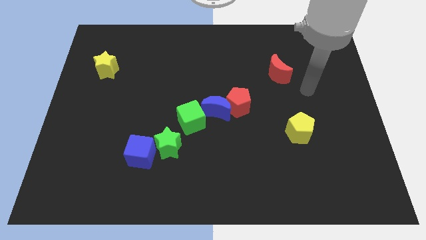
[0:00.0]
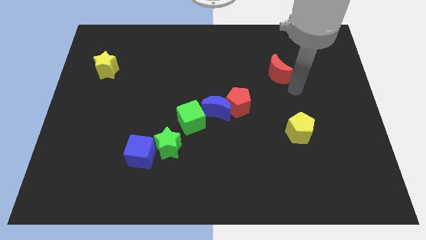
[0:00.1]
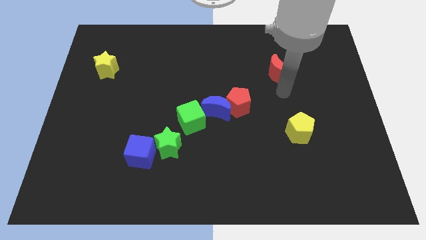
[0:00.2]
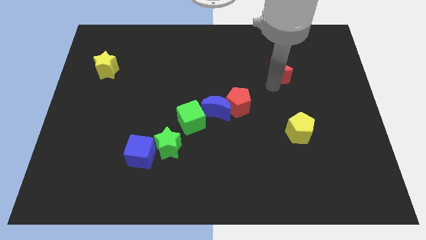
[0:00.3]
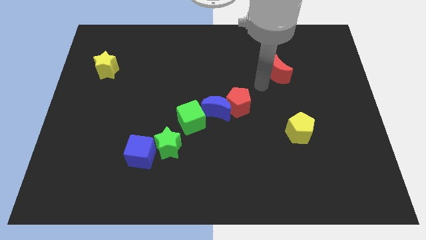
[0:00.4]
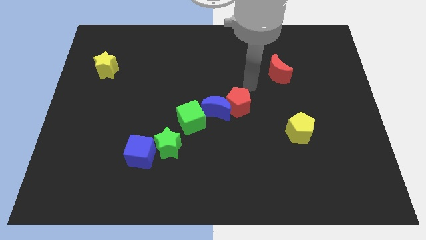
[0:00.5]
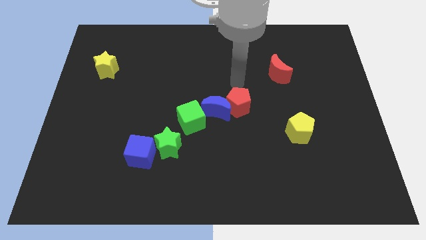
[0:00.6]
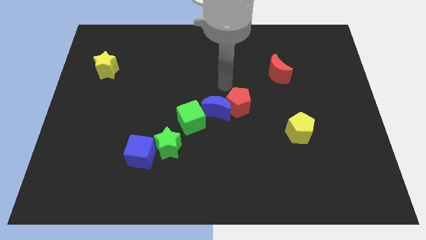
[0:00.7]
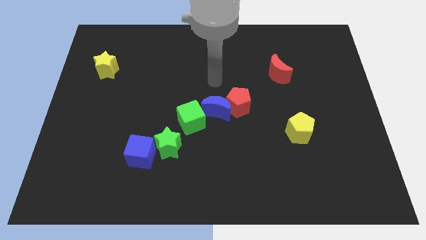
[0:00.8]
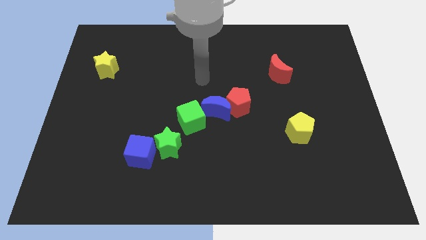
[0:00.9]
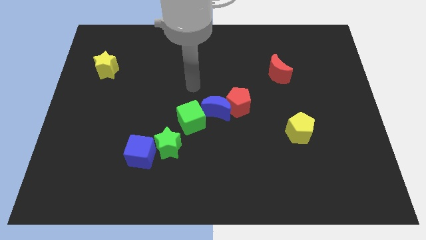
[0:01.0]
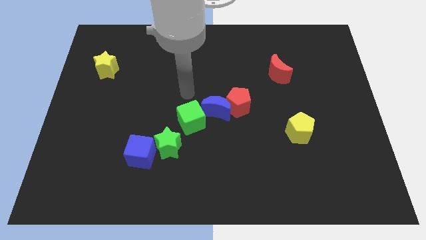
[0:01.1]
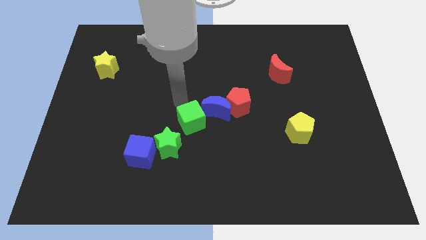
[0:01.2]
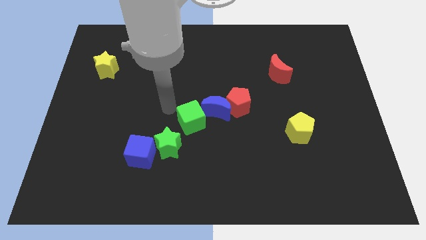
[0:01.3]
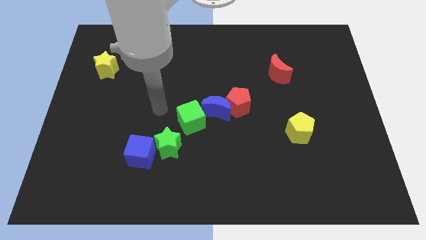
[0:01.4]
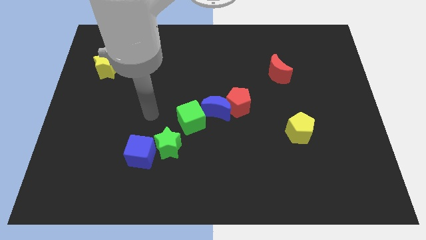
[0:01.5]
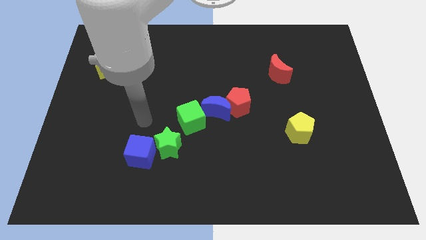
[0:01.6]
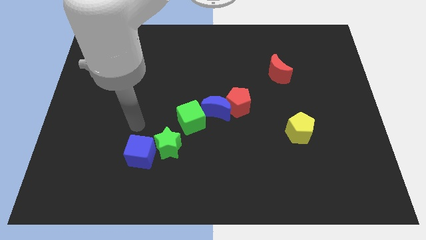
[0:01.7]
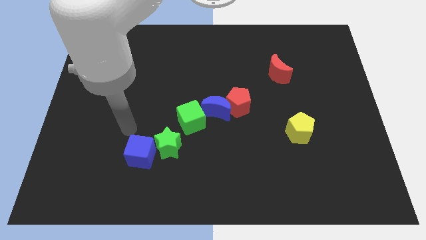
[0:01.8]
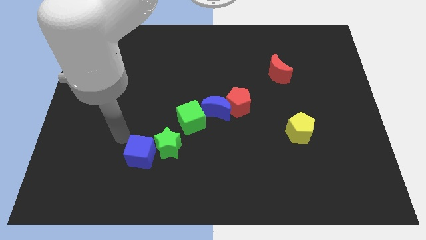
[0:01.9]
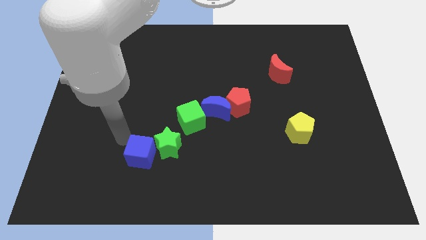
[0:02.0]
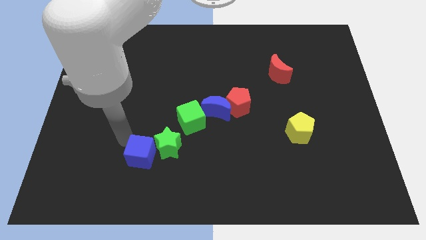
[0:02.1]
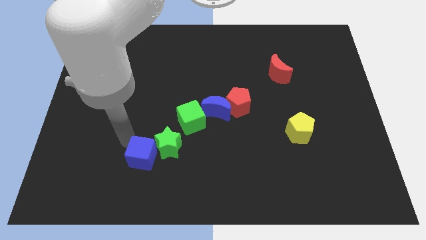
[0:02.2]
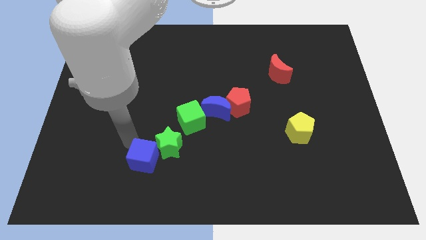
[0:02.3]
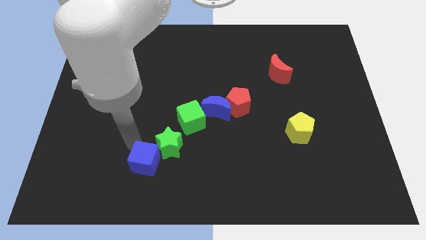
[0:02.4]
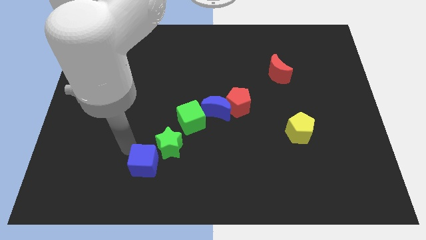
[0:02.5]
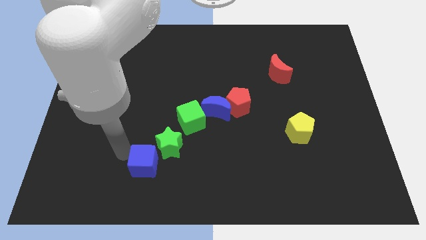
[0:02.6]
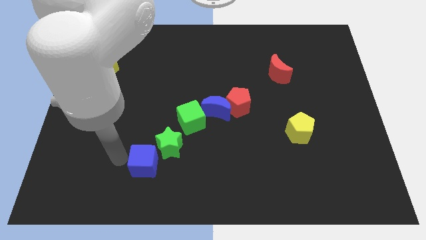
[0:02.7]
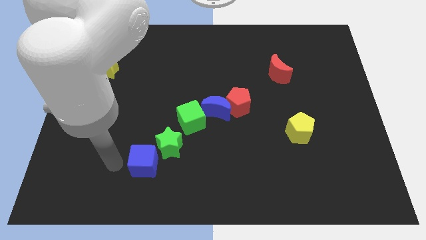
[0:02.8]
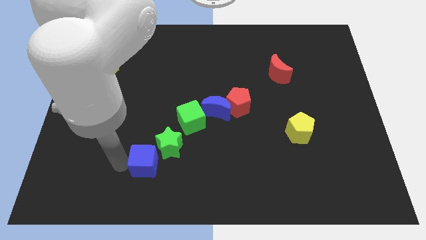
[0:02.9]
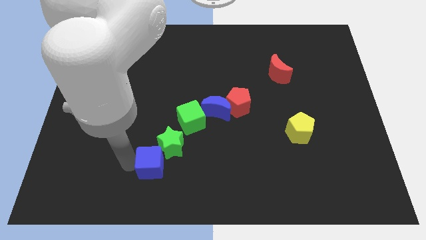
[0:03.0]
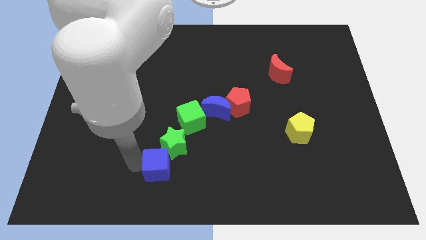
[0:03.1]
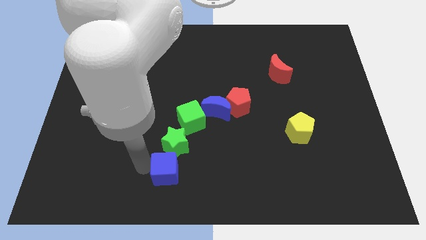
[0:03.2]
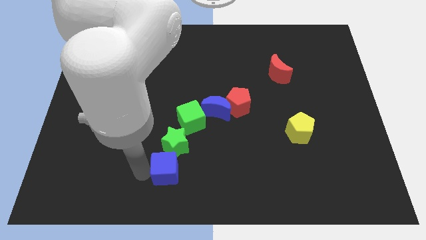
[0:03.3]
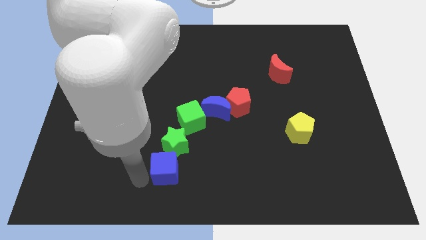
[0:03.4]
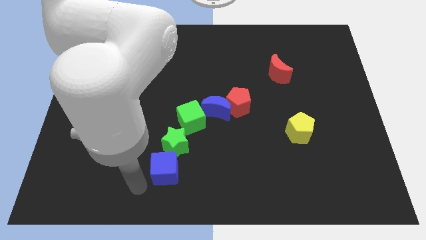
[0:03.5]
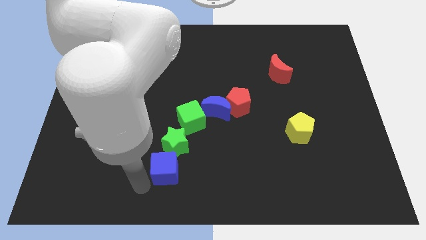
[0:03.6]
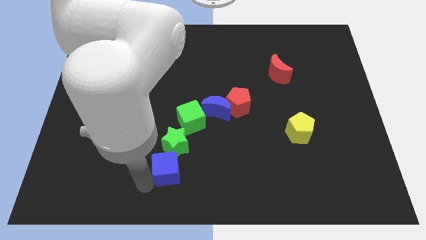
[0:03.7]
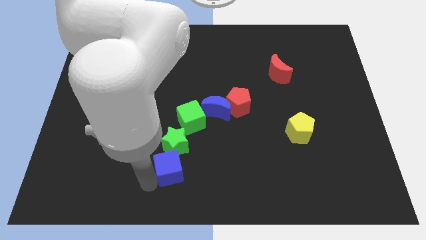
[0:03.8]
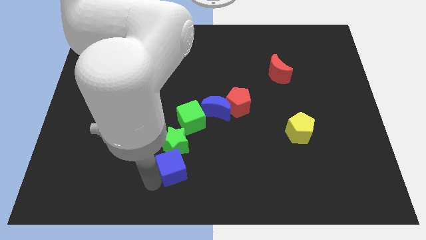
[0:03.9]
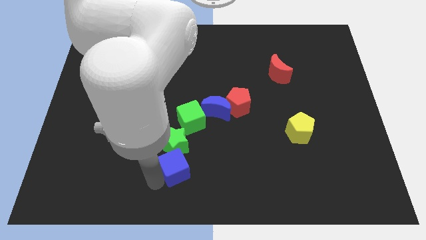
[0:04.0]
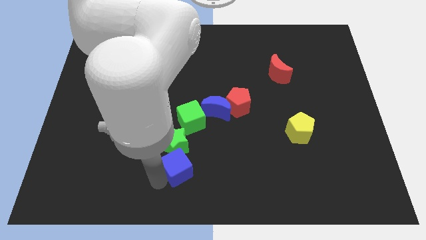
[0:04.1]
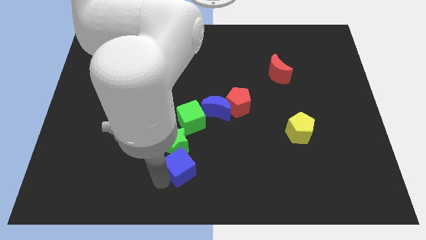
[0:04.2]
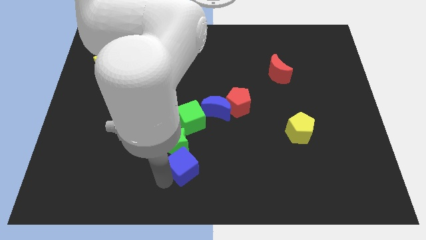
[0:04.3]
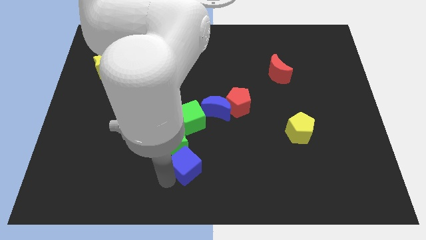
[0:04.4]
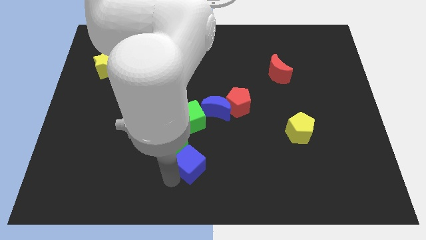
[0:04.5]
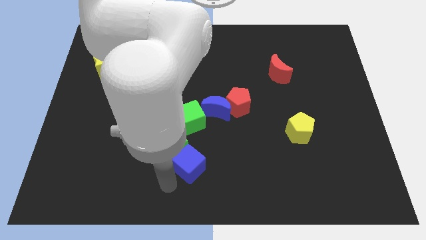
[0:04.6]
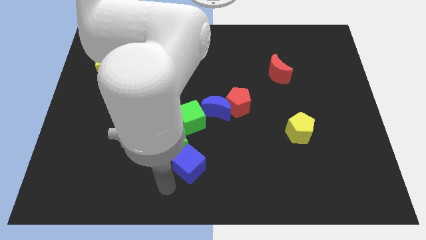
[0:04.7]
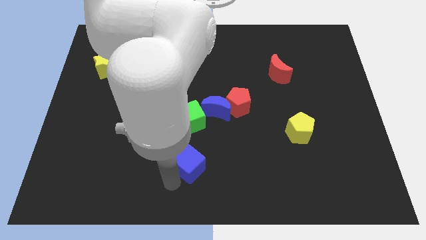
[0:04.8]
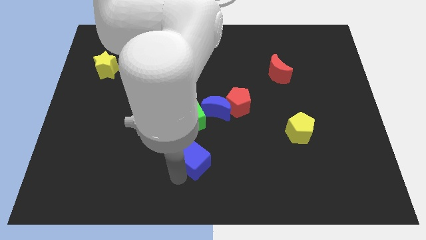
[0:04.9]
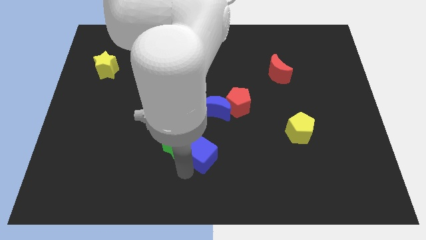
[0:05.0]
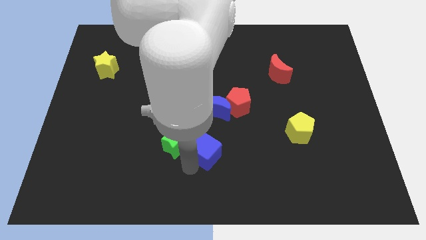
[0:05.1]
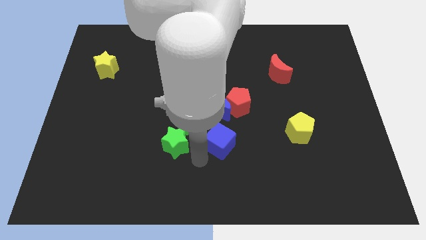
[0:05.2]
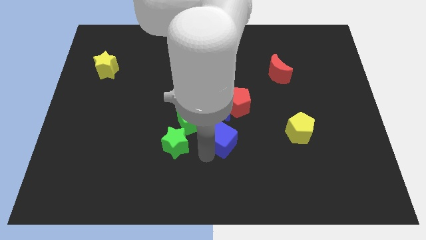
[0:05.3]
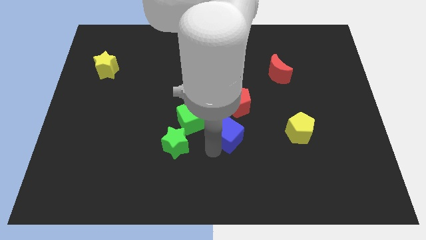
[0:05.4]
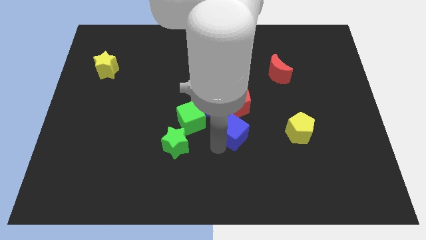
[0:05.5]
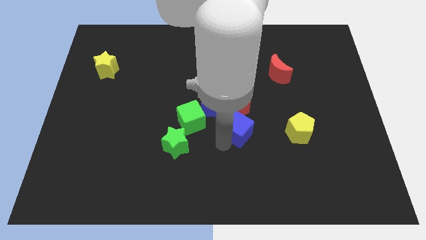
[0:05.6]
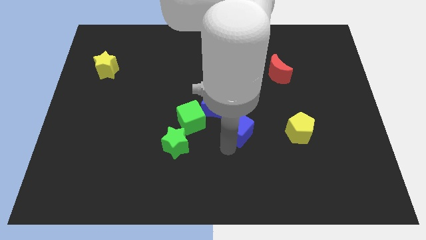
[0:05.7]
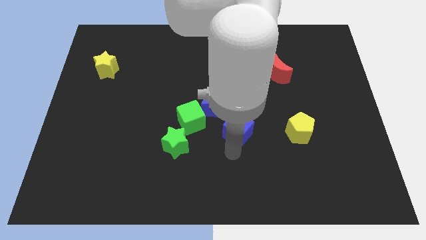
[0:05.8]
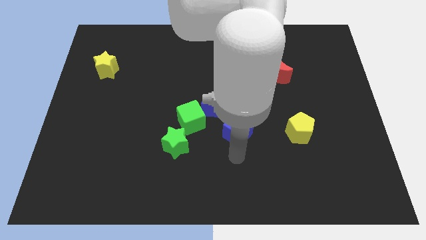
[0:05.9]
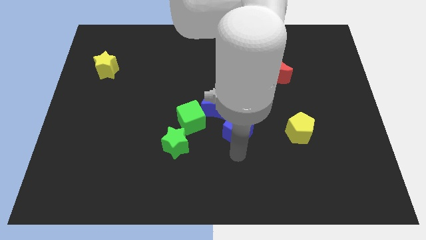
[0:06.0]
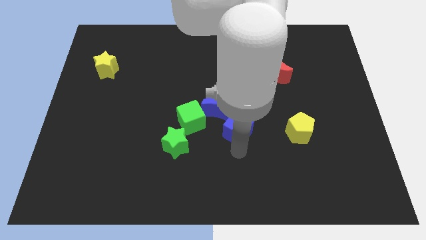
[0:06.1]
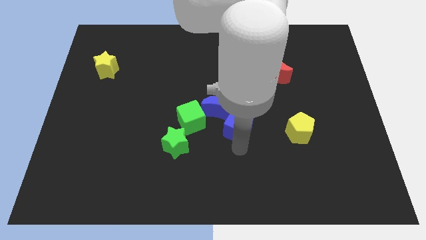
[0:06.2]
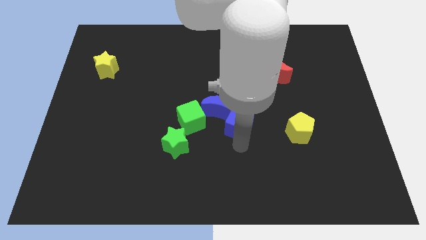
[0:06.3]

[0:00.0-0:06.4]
slide the blue cube to the red pentagon

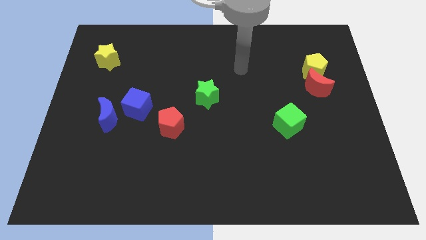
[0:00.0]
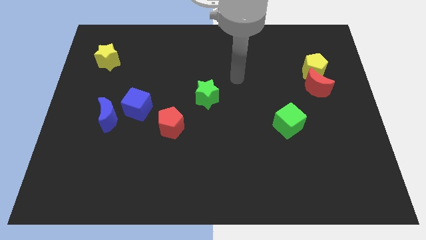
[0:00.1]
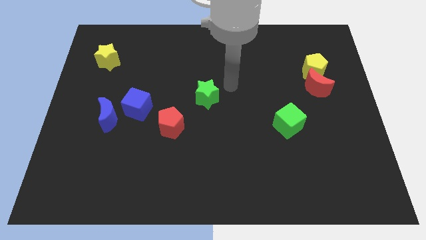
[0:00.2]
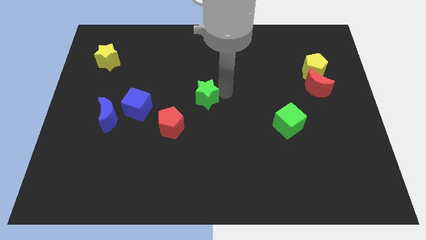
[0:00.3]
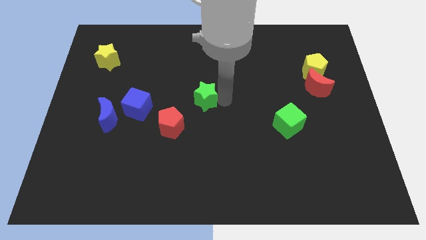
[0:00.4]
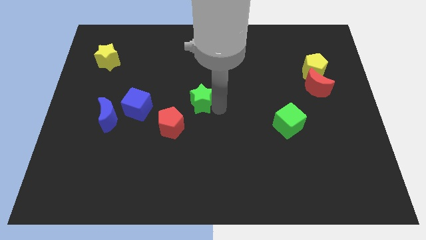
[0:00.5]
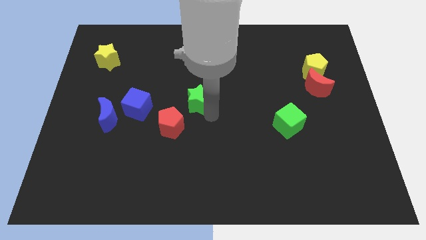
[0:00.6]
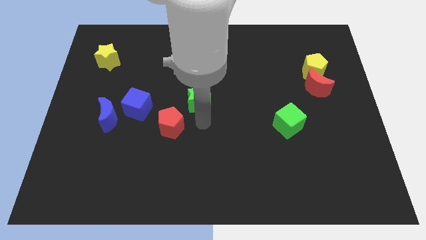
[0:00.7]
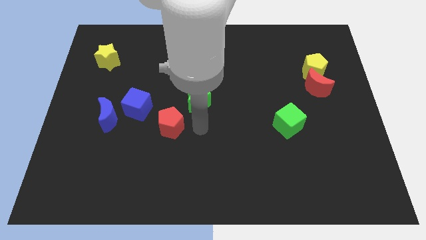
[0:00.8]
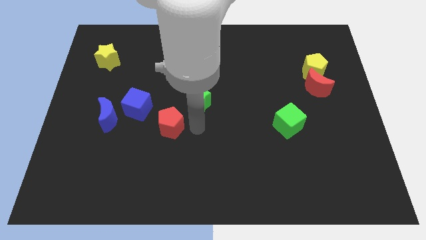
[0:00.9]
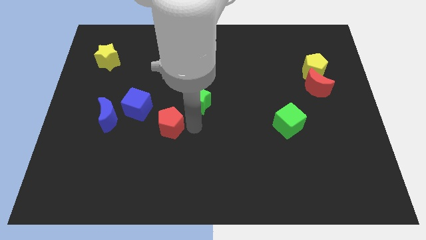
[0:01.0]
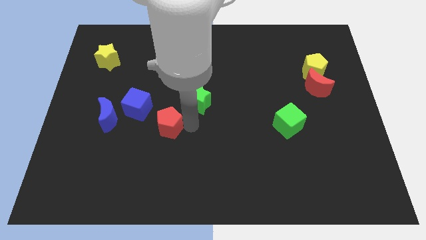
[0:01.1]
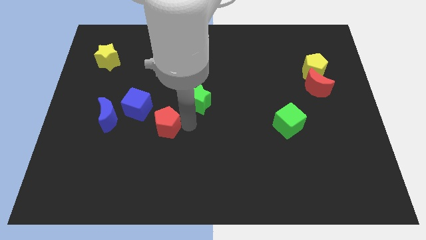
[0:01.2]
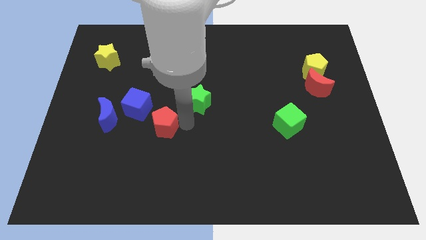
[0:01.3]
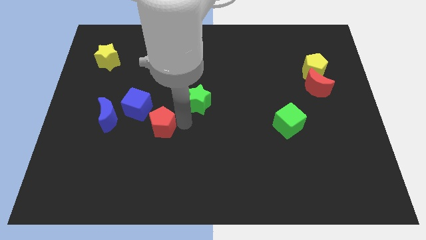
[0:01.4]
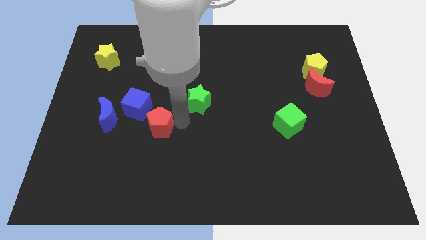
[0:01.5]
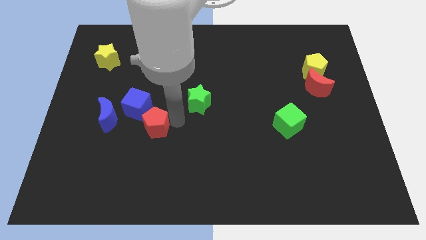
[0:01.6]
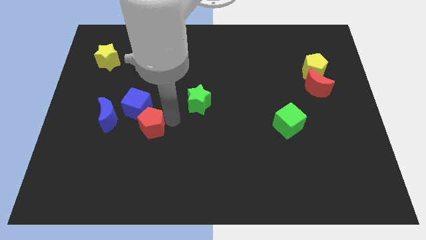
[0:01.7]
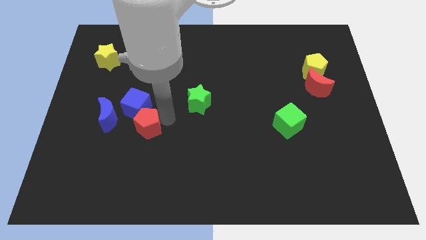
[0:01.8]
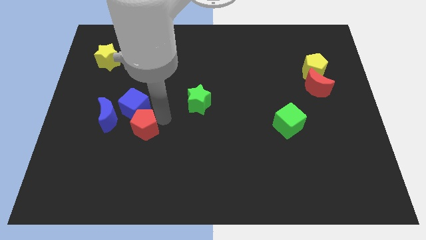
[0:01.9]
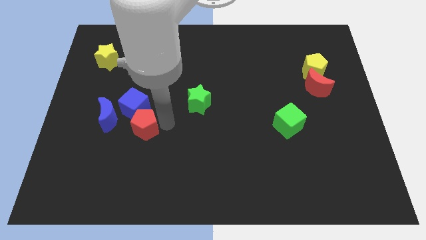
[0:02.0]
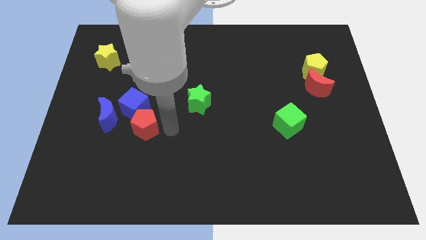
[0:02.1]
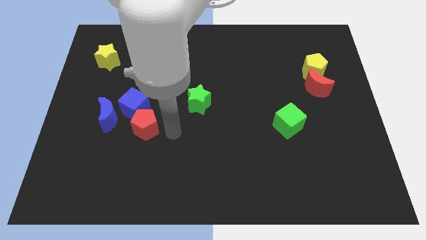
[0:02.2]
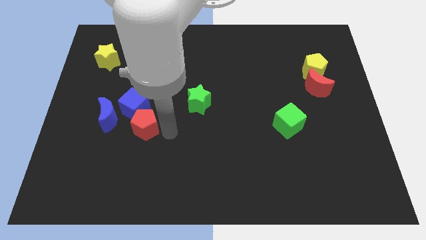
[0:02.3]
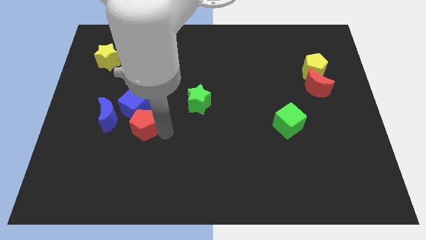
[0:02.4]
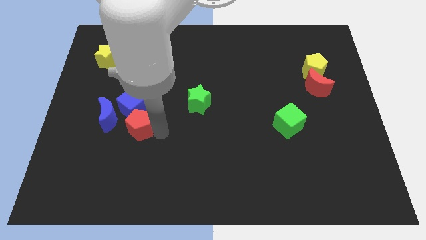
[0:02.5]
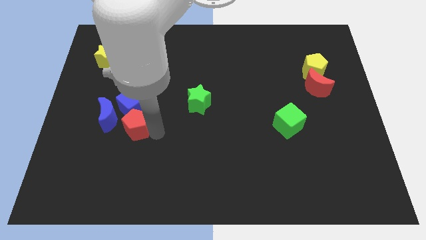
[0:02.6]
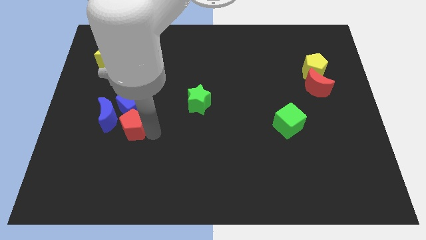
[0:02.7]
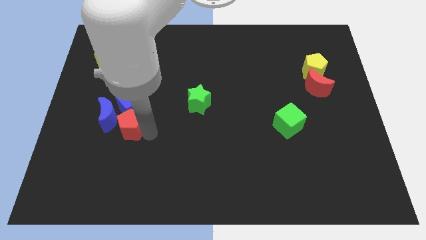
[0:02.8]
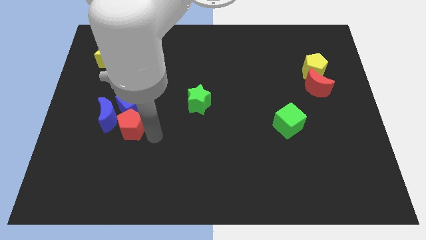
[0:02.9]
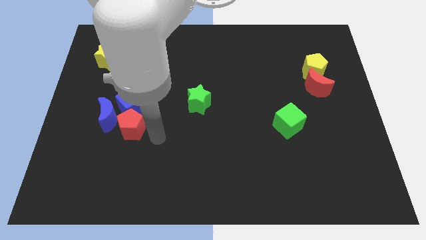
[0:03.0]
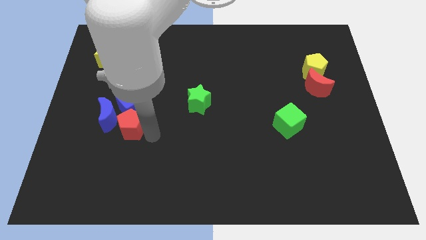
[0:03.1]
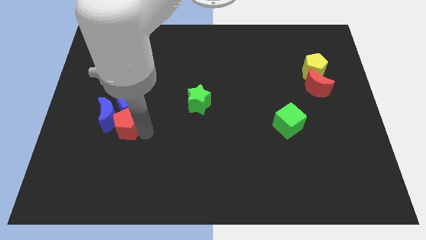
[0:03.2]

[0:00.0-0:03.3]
push the red pentagon towards the blue moon
